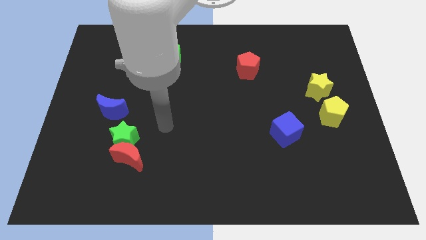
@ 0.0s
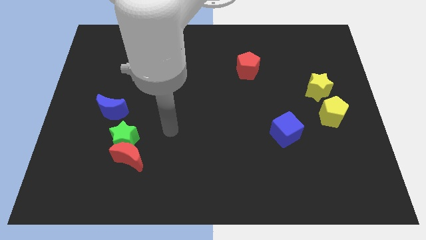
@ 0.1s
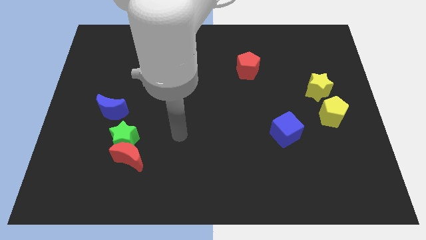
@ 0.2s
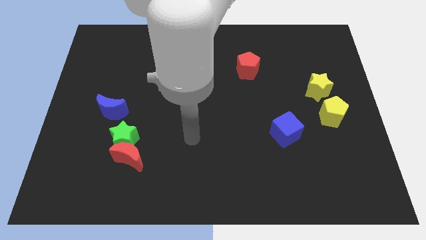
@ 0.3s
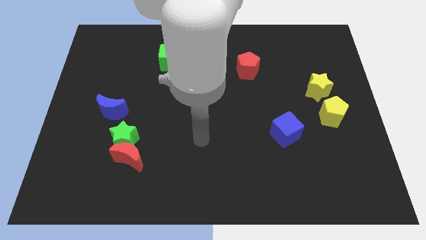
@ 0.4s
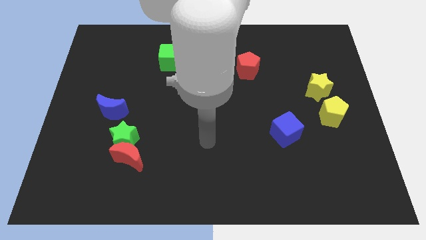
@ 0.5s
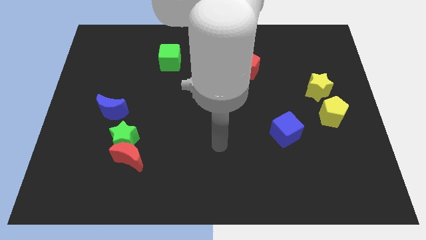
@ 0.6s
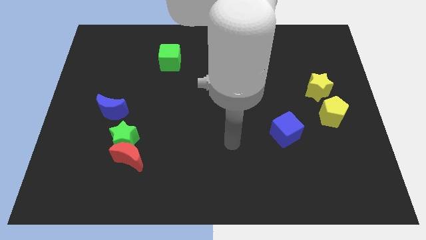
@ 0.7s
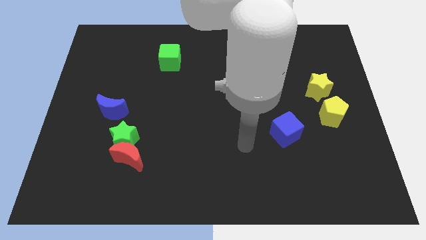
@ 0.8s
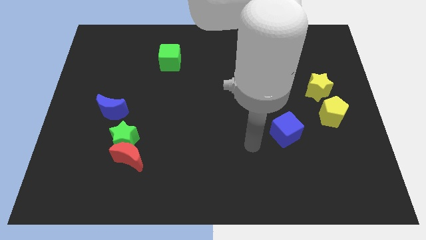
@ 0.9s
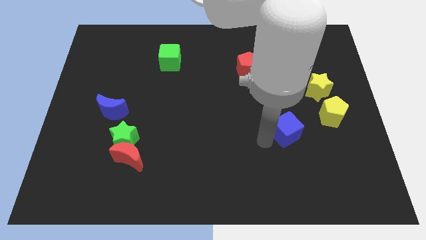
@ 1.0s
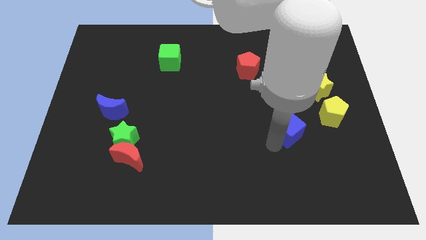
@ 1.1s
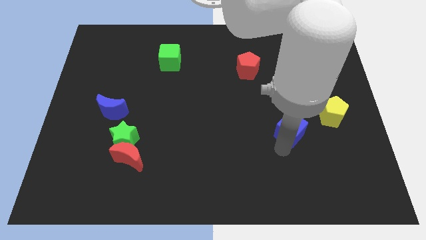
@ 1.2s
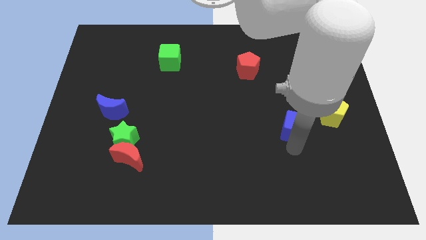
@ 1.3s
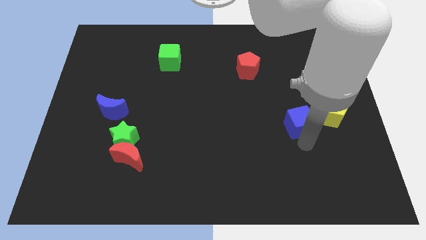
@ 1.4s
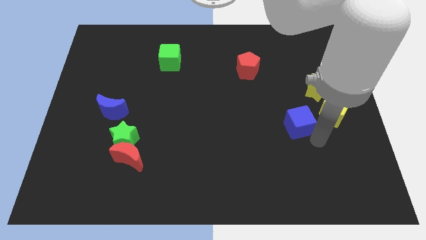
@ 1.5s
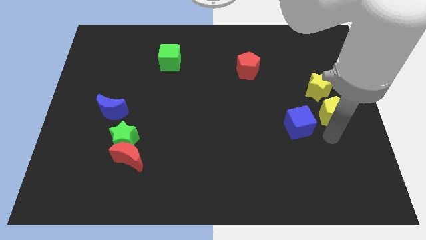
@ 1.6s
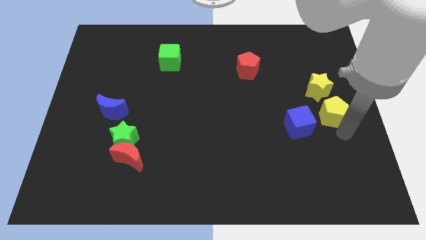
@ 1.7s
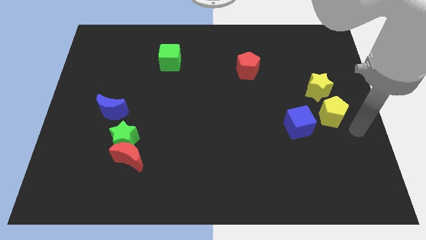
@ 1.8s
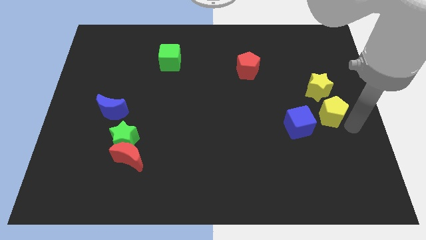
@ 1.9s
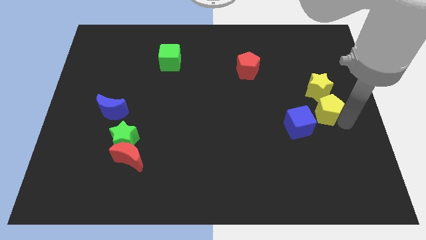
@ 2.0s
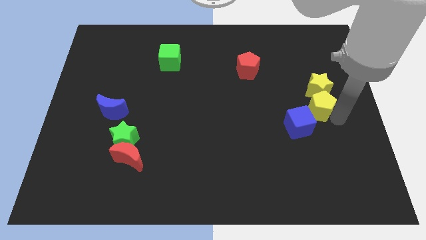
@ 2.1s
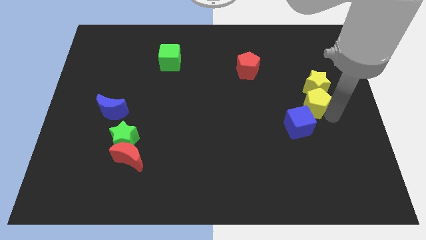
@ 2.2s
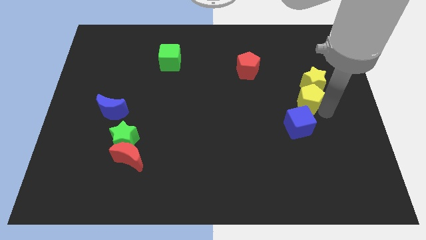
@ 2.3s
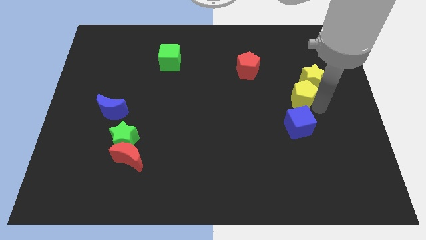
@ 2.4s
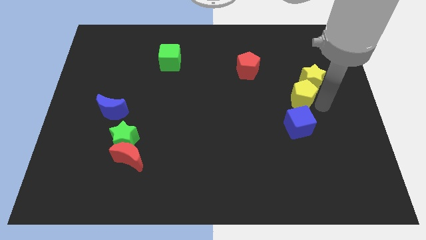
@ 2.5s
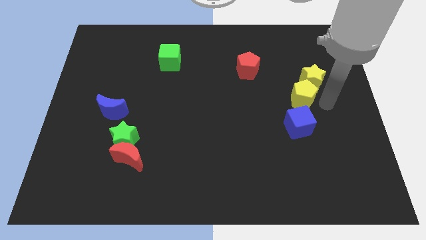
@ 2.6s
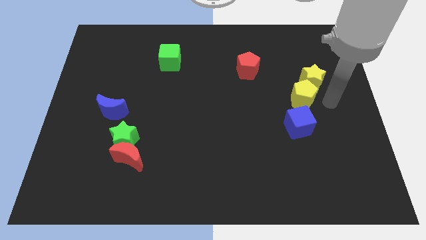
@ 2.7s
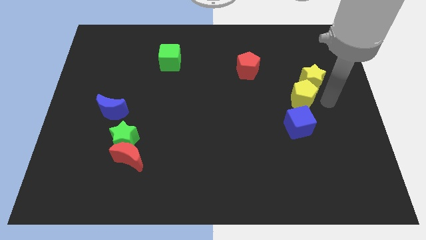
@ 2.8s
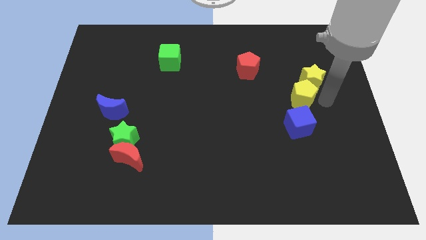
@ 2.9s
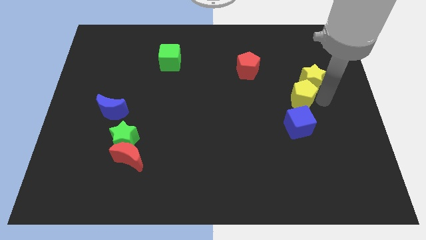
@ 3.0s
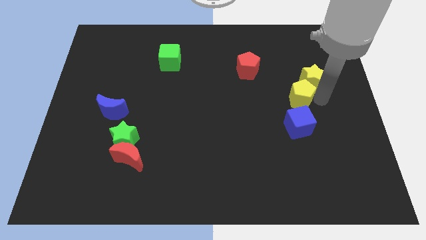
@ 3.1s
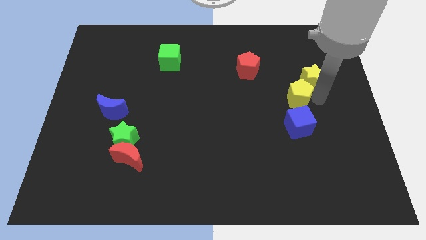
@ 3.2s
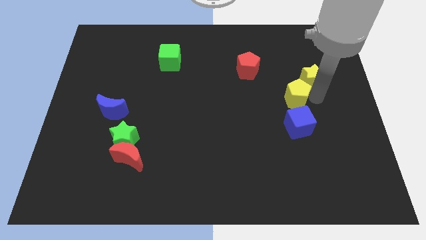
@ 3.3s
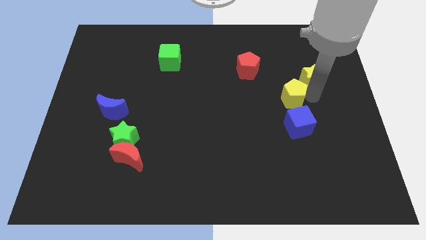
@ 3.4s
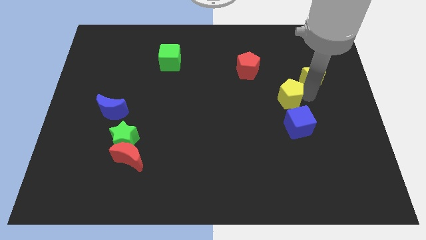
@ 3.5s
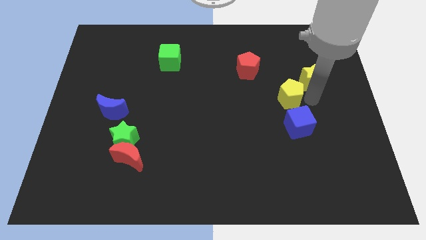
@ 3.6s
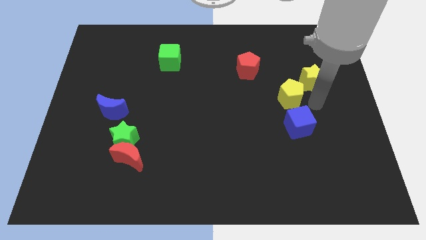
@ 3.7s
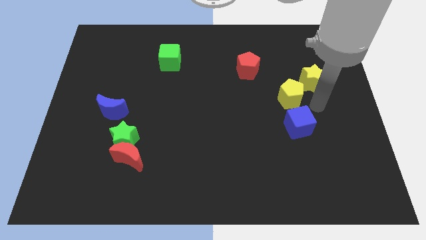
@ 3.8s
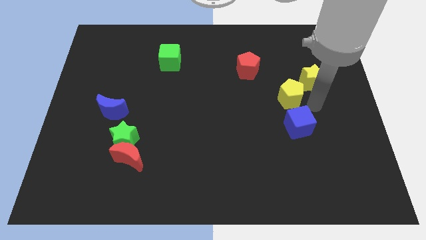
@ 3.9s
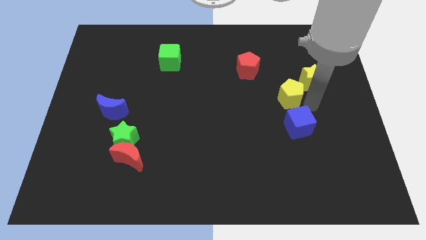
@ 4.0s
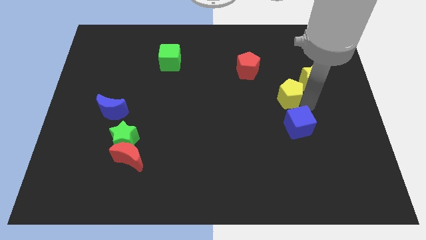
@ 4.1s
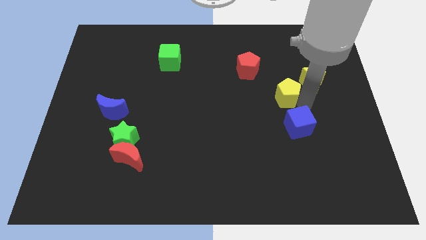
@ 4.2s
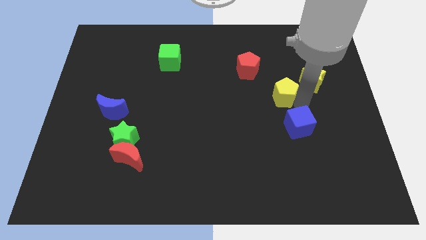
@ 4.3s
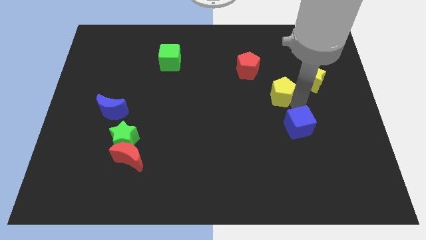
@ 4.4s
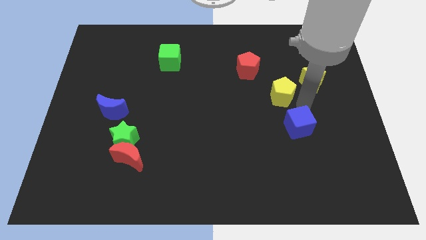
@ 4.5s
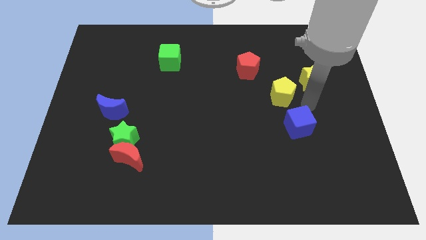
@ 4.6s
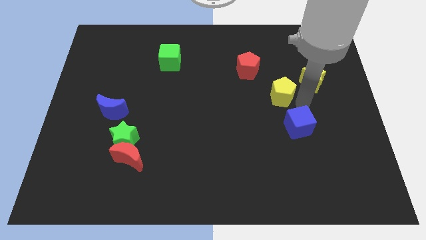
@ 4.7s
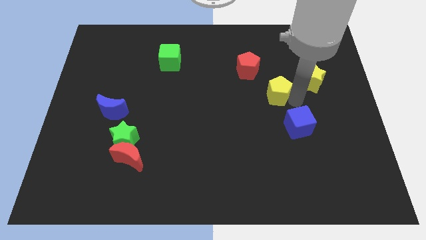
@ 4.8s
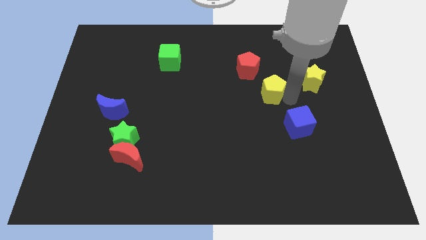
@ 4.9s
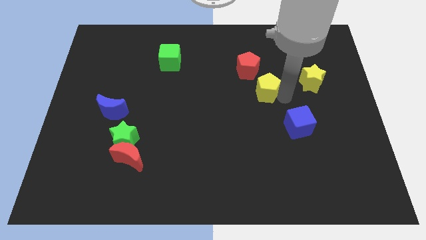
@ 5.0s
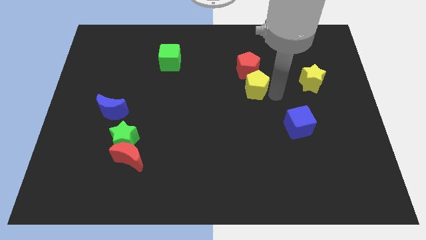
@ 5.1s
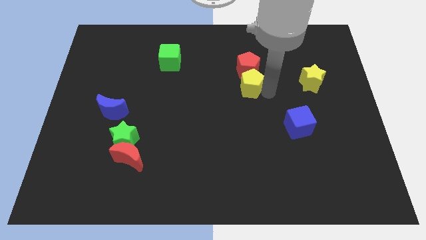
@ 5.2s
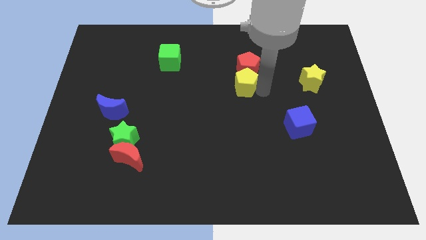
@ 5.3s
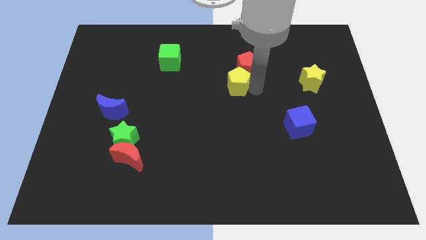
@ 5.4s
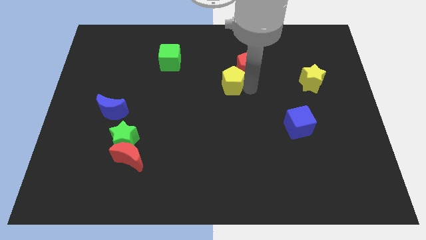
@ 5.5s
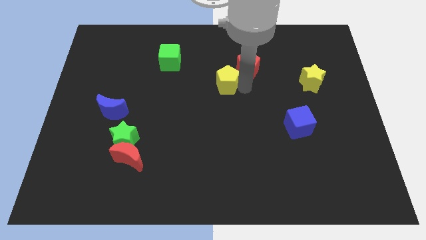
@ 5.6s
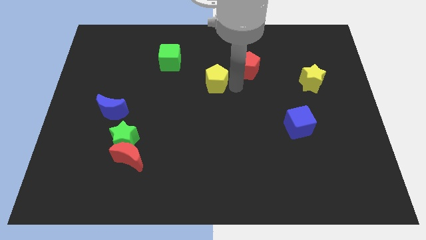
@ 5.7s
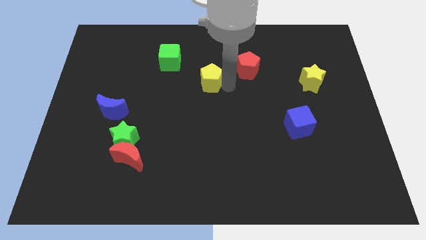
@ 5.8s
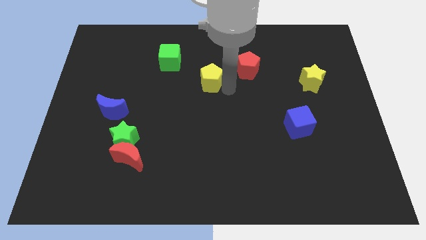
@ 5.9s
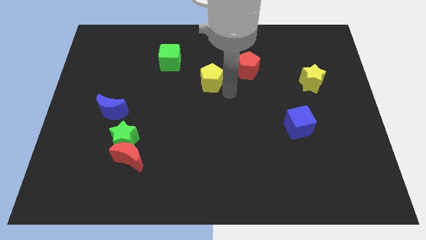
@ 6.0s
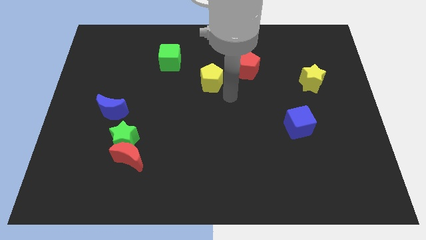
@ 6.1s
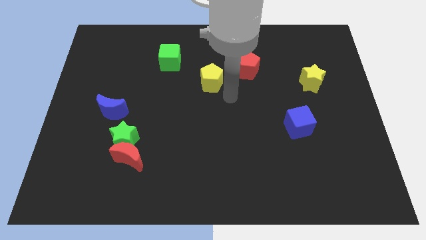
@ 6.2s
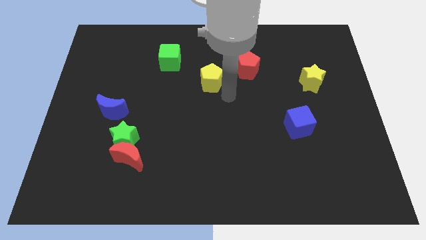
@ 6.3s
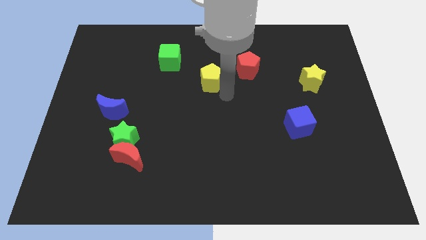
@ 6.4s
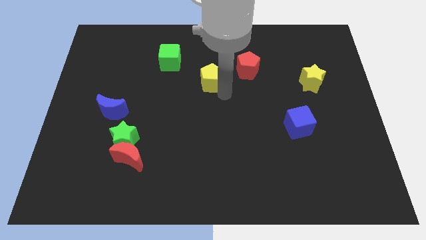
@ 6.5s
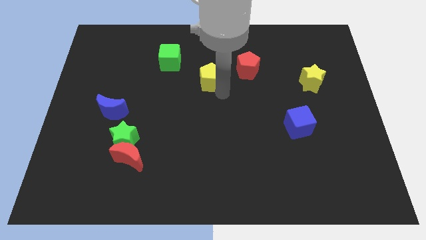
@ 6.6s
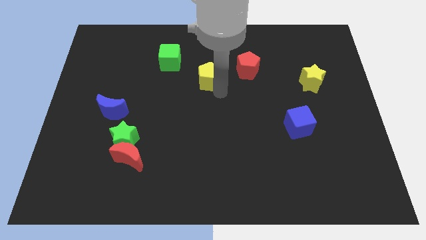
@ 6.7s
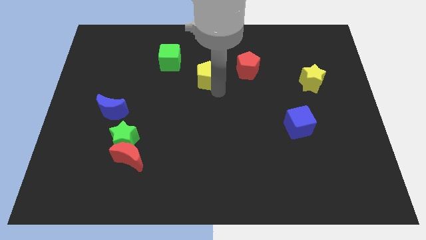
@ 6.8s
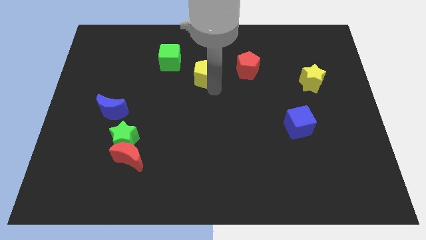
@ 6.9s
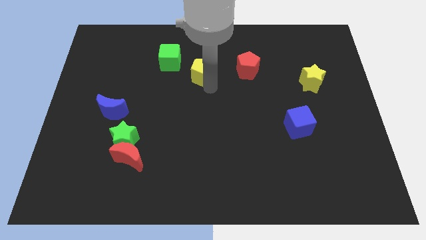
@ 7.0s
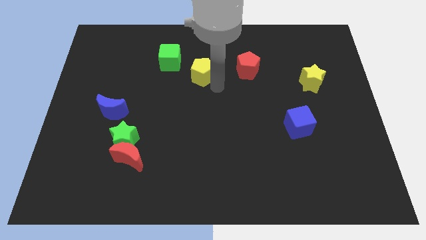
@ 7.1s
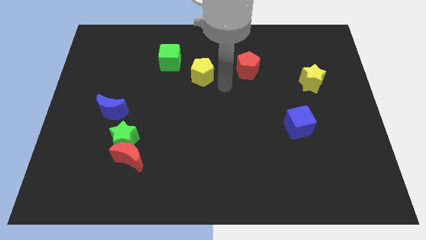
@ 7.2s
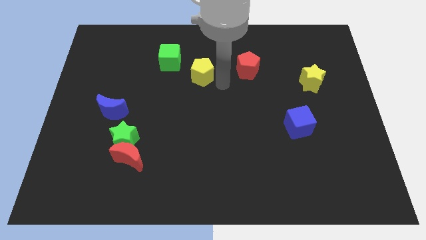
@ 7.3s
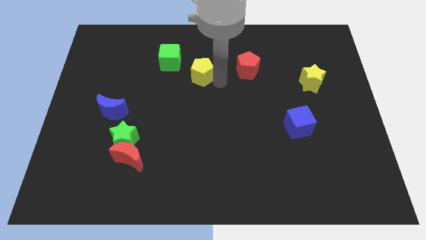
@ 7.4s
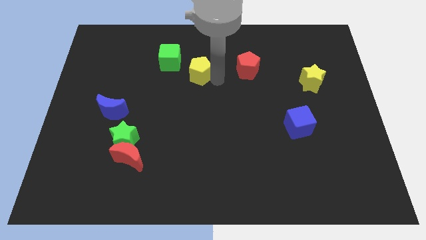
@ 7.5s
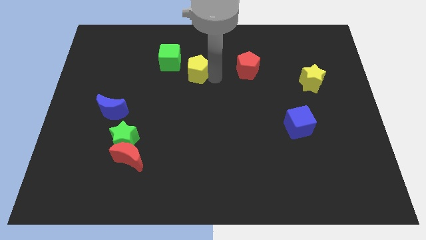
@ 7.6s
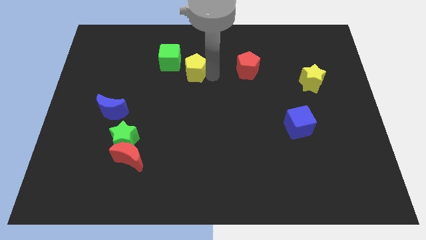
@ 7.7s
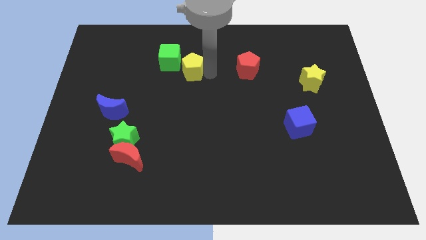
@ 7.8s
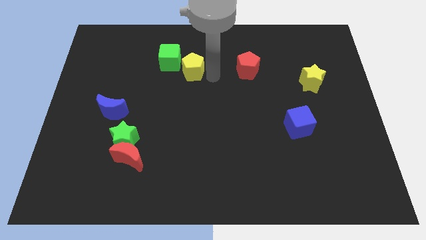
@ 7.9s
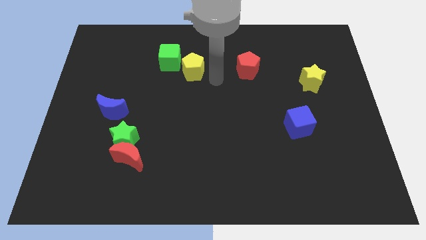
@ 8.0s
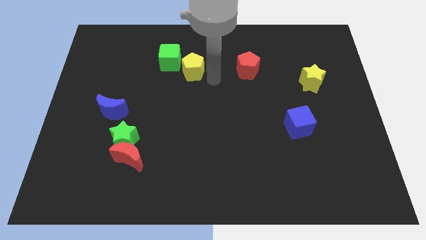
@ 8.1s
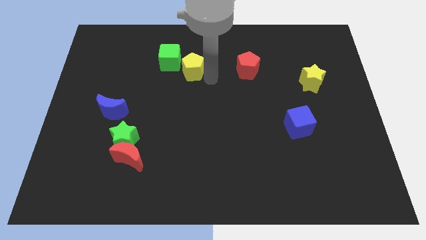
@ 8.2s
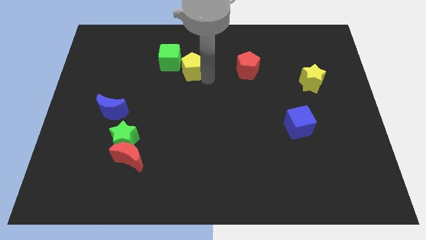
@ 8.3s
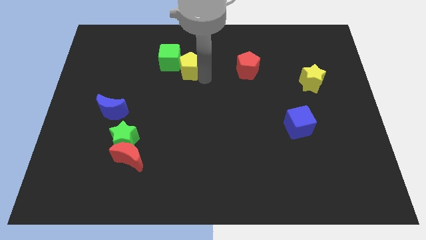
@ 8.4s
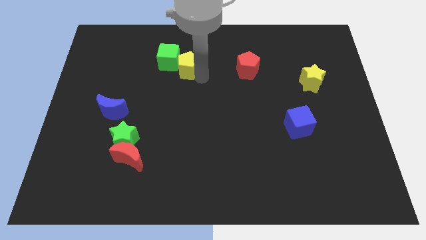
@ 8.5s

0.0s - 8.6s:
push the yellow pentagon towards the green cube
